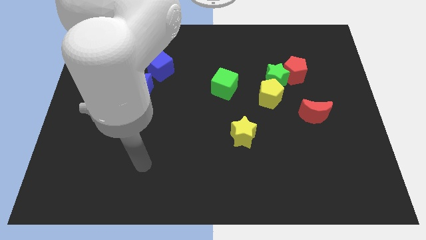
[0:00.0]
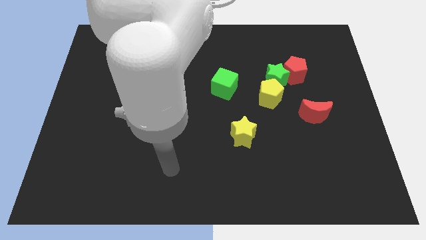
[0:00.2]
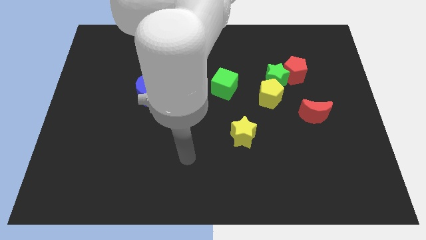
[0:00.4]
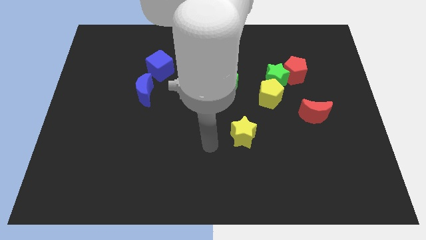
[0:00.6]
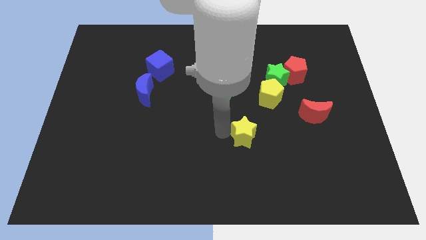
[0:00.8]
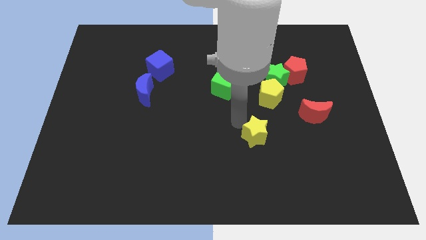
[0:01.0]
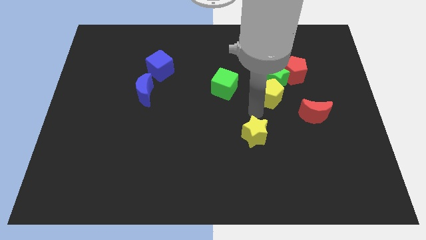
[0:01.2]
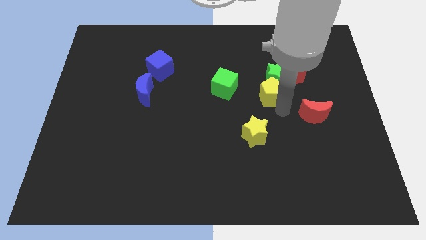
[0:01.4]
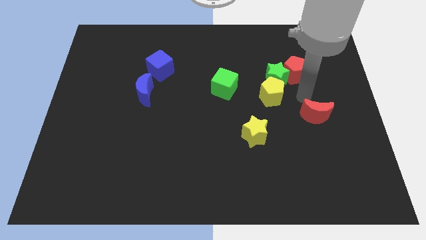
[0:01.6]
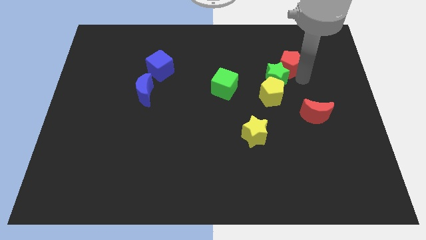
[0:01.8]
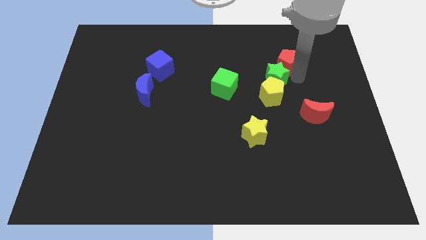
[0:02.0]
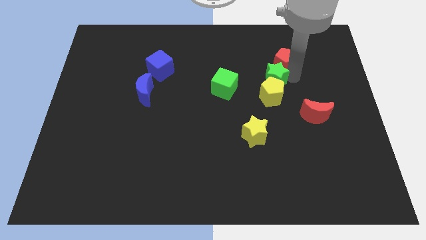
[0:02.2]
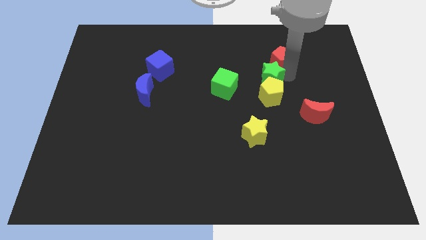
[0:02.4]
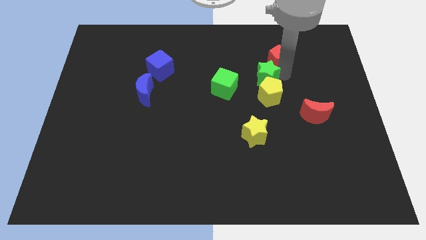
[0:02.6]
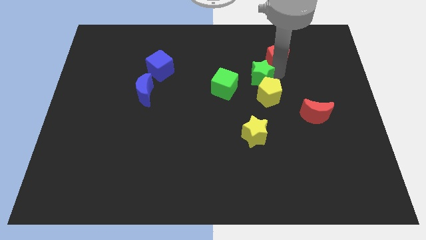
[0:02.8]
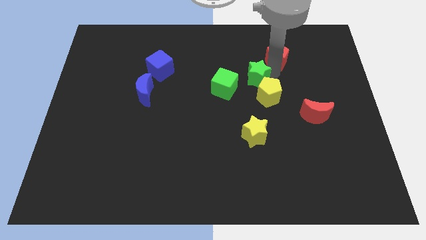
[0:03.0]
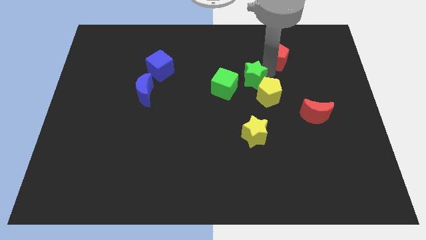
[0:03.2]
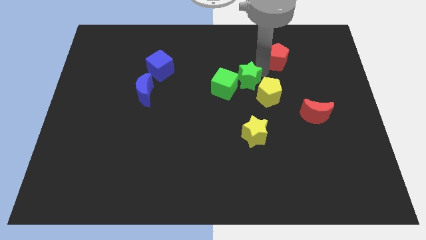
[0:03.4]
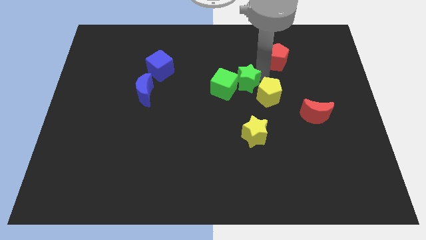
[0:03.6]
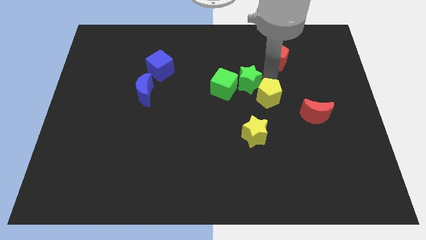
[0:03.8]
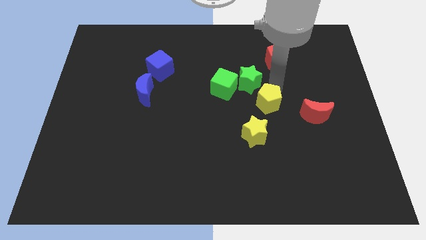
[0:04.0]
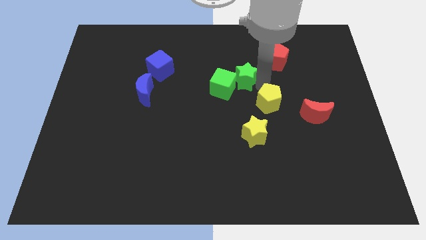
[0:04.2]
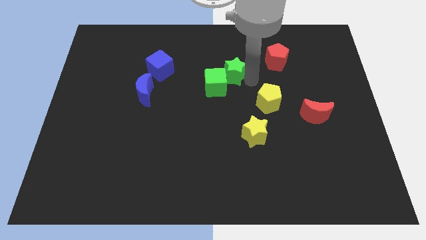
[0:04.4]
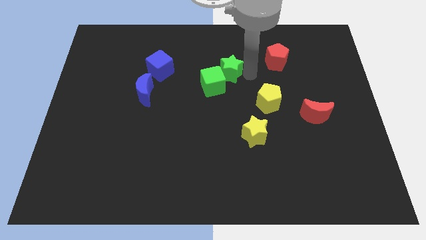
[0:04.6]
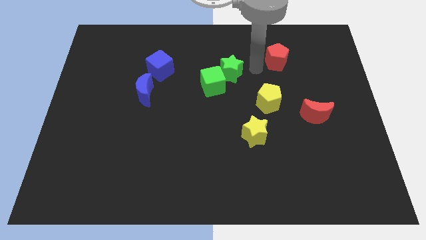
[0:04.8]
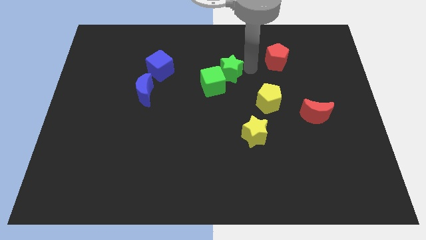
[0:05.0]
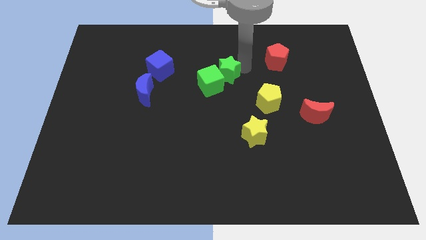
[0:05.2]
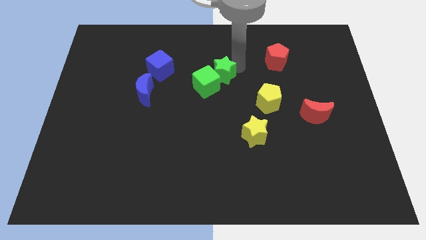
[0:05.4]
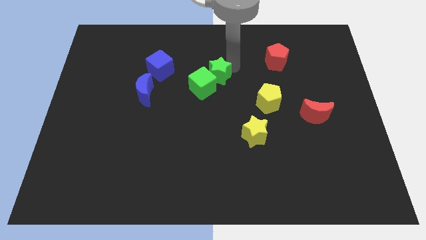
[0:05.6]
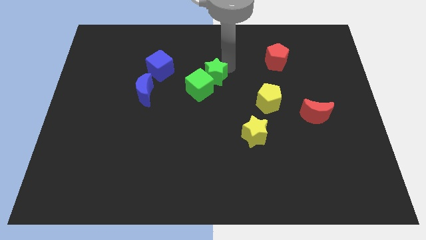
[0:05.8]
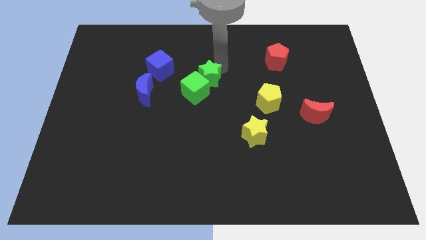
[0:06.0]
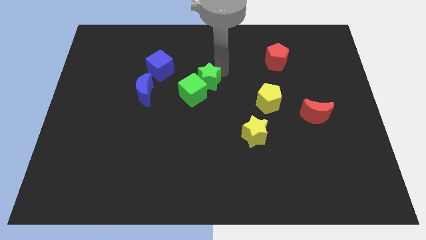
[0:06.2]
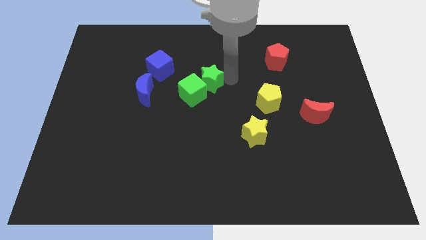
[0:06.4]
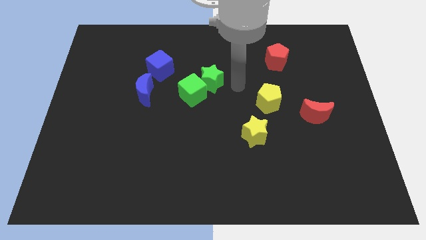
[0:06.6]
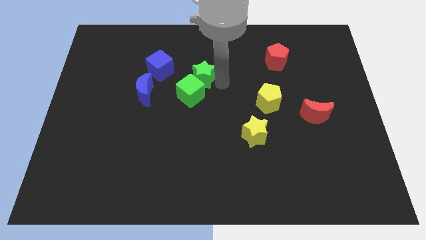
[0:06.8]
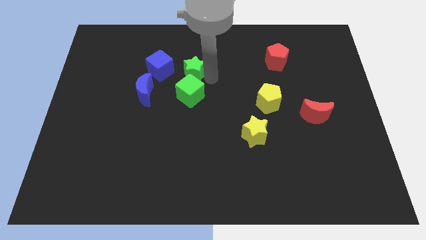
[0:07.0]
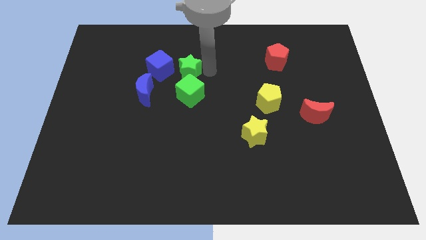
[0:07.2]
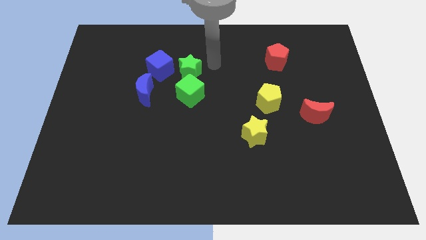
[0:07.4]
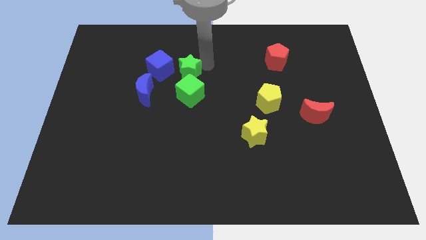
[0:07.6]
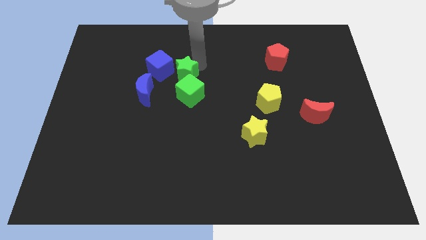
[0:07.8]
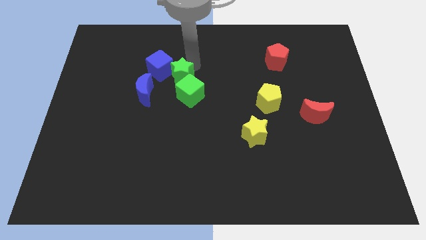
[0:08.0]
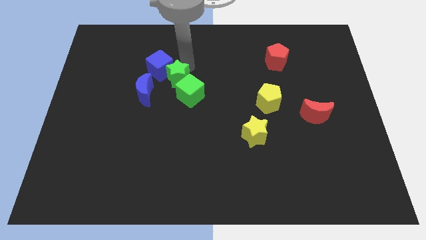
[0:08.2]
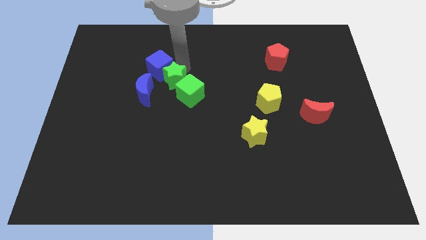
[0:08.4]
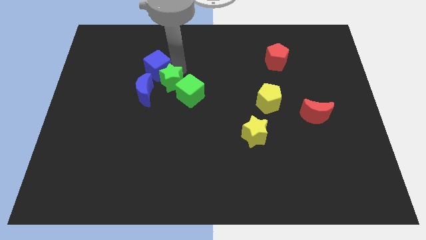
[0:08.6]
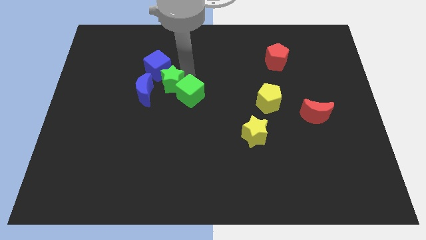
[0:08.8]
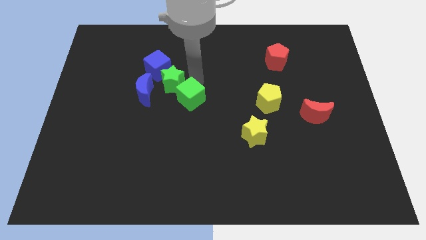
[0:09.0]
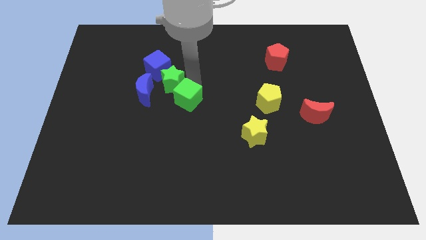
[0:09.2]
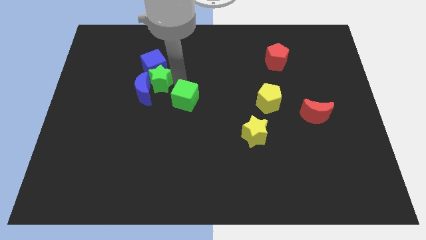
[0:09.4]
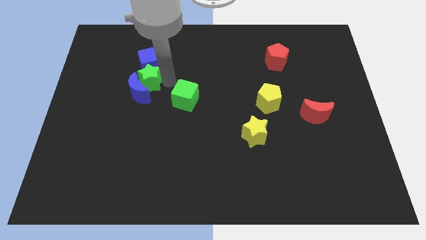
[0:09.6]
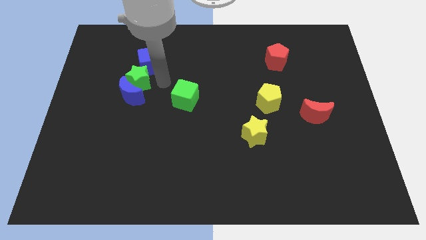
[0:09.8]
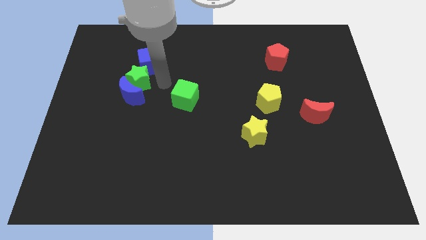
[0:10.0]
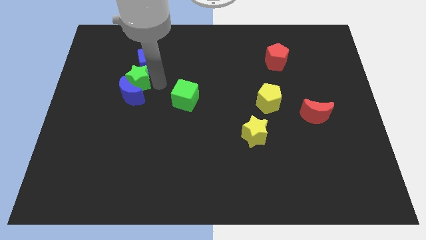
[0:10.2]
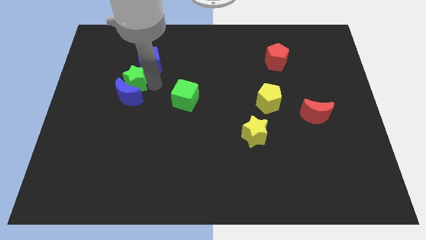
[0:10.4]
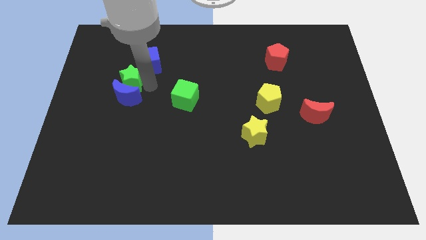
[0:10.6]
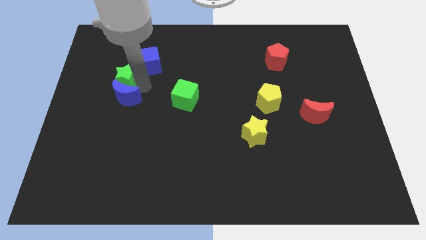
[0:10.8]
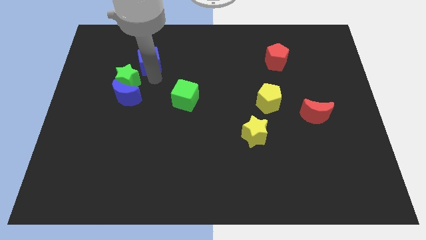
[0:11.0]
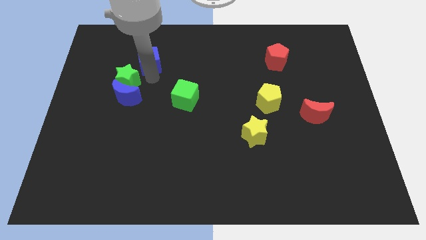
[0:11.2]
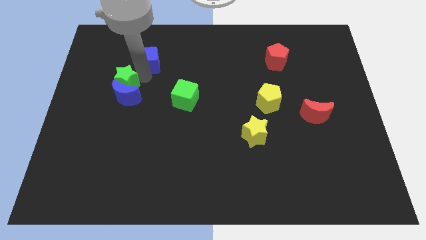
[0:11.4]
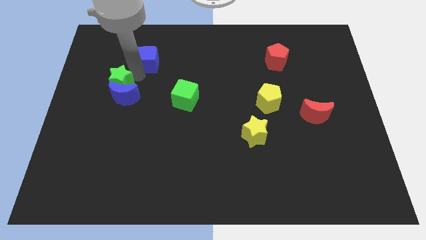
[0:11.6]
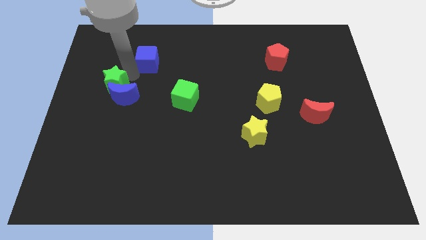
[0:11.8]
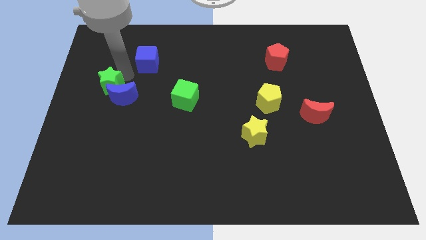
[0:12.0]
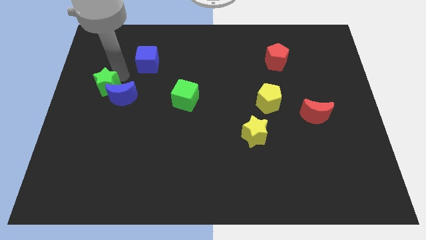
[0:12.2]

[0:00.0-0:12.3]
slide the green star to the center left

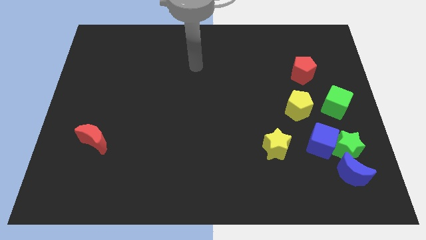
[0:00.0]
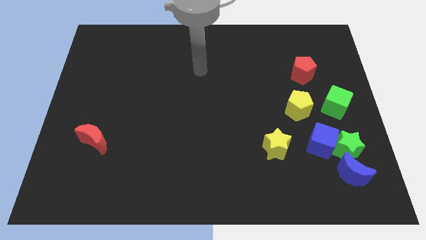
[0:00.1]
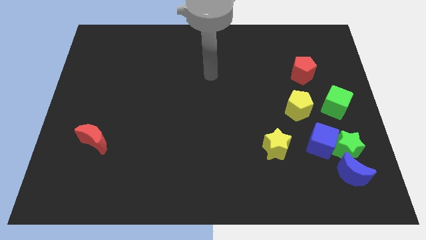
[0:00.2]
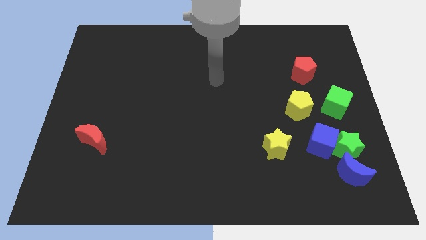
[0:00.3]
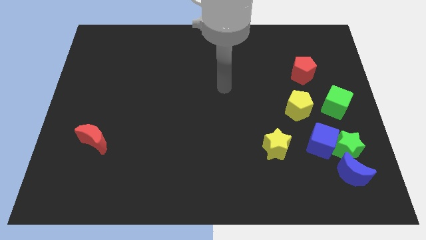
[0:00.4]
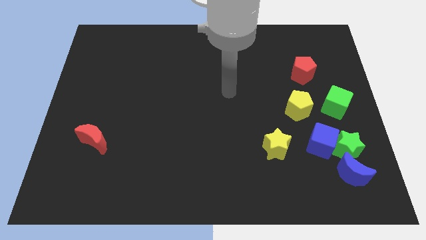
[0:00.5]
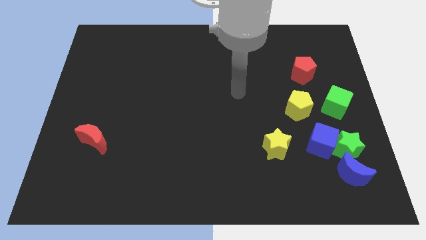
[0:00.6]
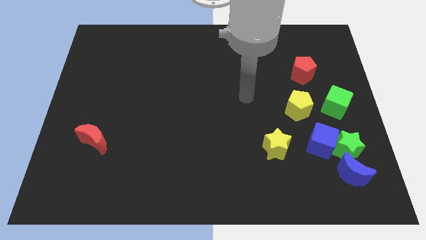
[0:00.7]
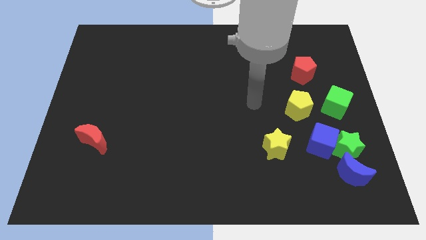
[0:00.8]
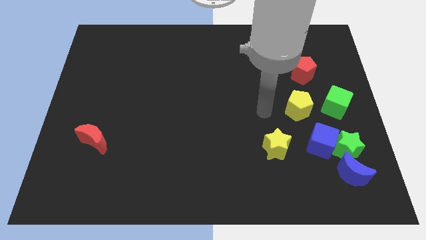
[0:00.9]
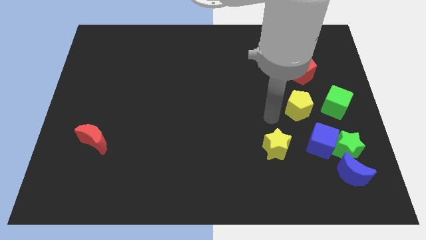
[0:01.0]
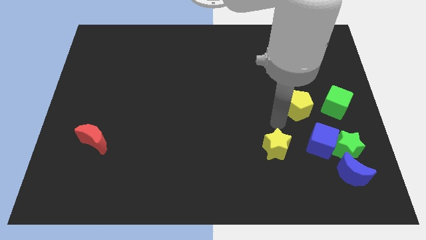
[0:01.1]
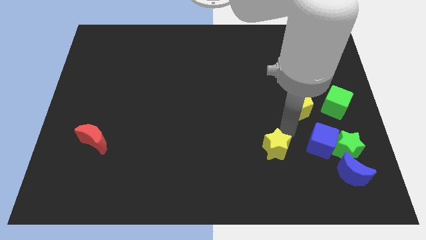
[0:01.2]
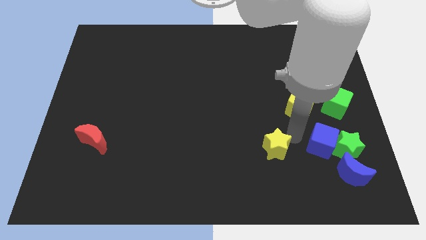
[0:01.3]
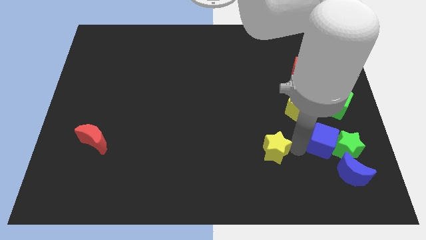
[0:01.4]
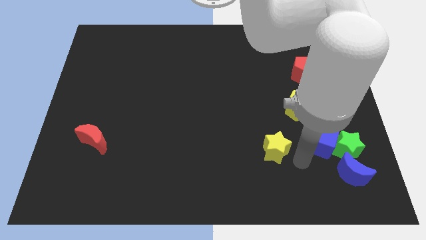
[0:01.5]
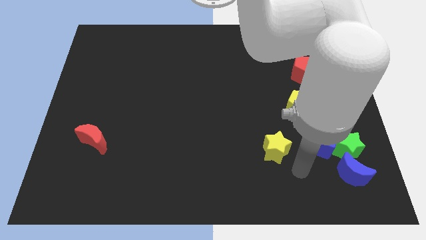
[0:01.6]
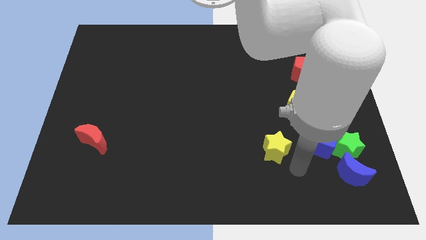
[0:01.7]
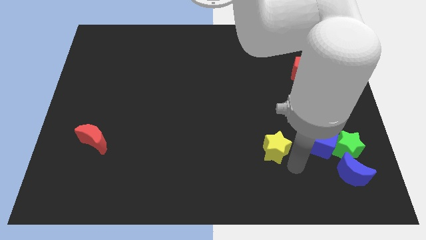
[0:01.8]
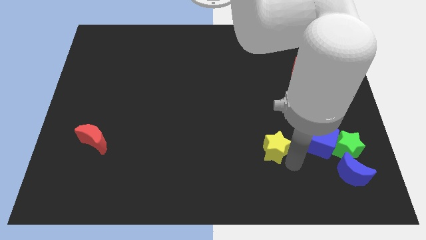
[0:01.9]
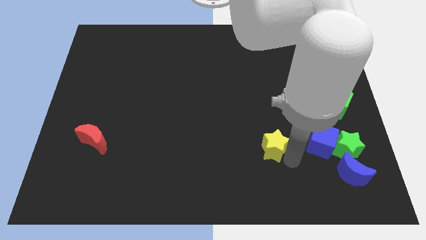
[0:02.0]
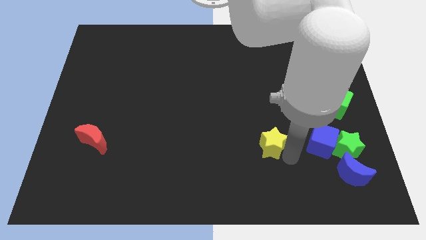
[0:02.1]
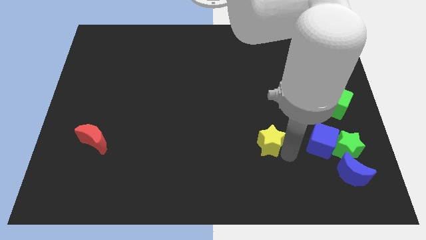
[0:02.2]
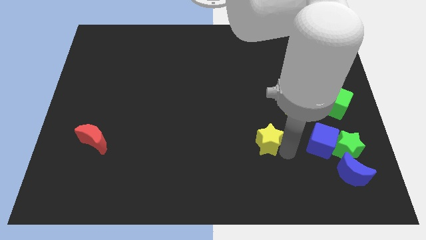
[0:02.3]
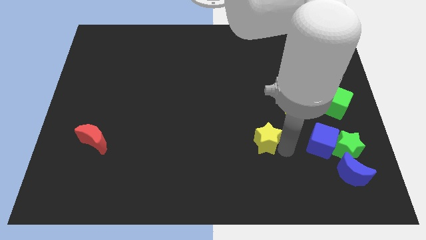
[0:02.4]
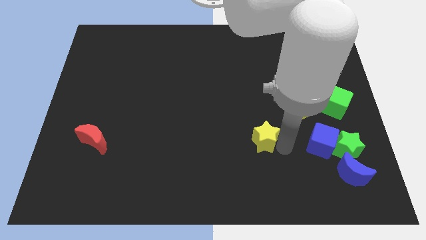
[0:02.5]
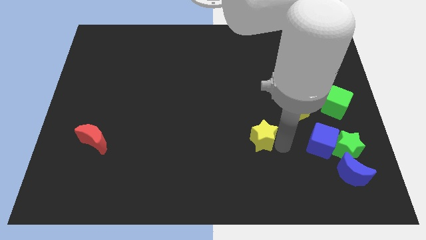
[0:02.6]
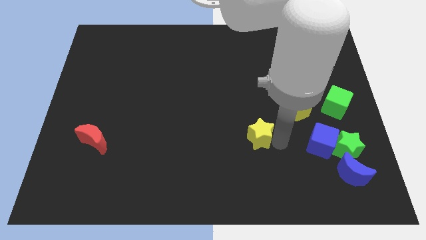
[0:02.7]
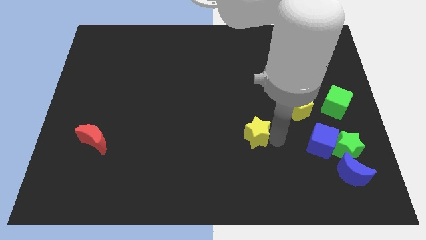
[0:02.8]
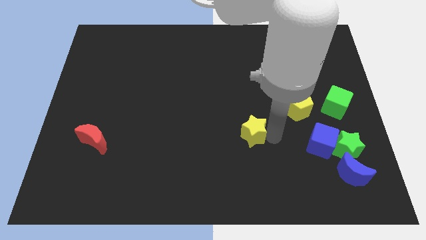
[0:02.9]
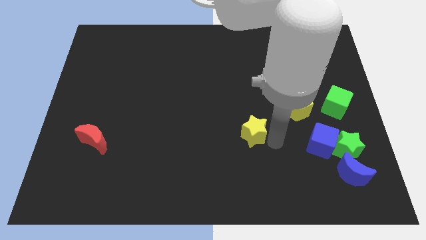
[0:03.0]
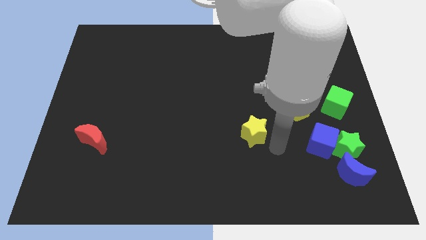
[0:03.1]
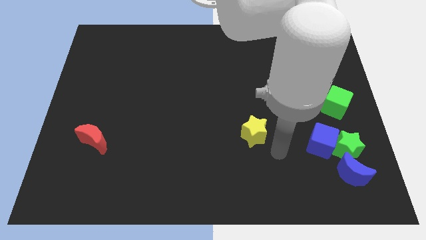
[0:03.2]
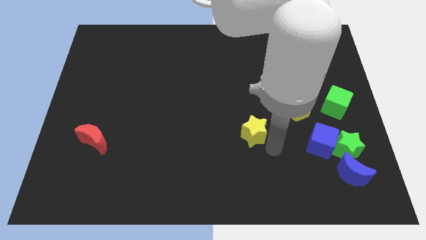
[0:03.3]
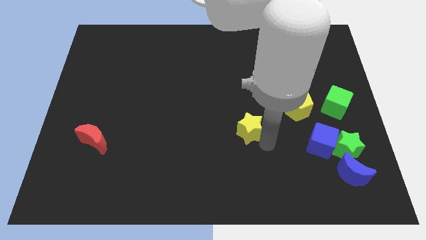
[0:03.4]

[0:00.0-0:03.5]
push the yellow star to the middle of the board
